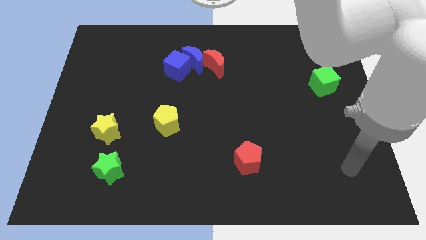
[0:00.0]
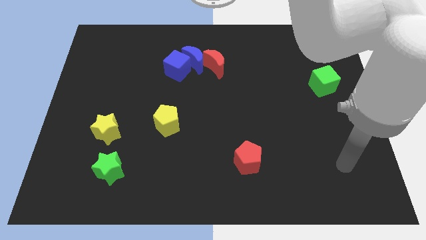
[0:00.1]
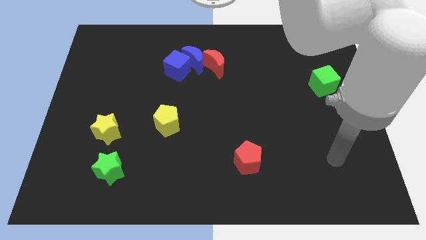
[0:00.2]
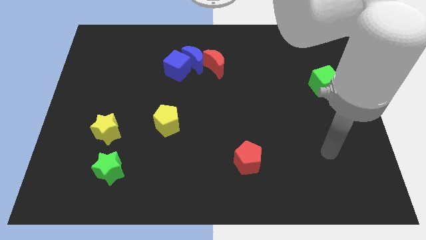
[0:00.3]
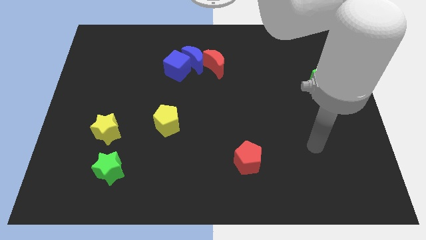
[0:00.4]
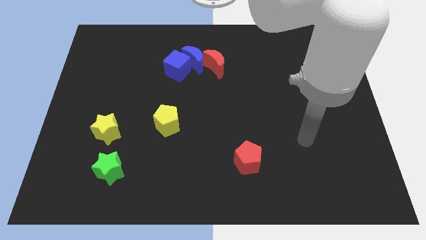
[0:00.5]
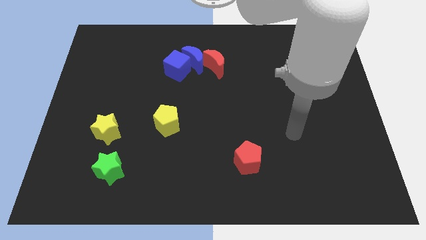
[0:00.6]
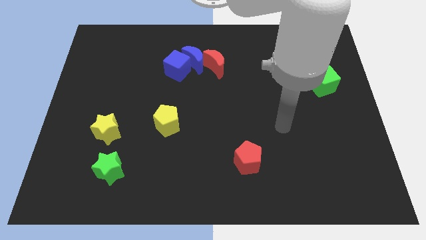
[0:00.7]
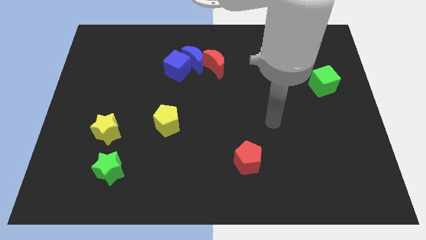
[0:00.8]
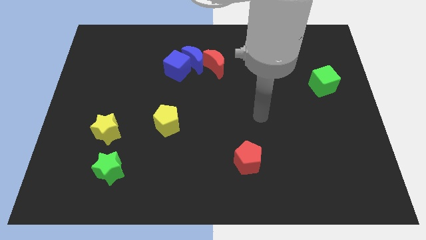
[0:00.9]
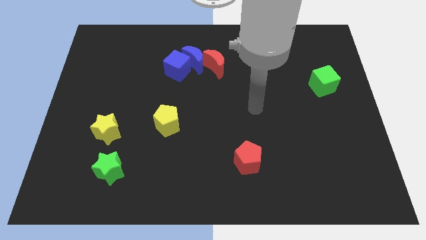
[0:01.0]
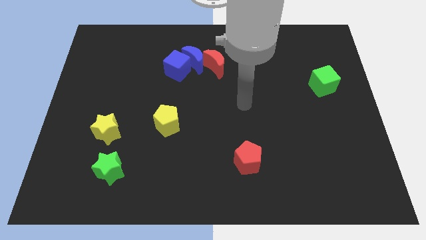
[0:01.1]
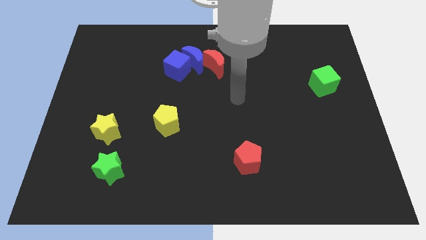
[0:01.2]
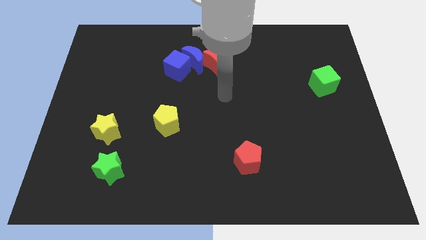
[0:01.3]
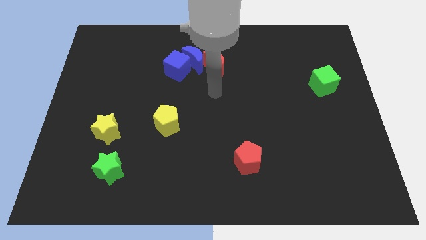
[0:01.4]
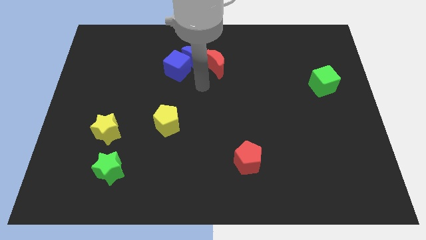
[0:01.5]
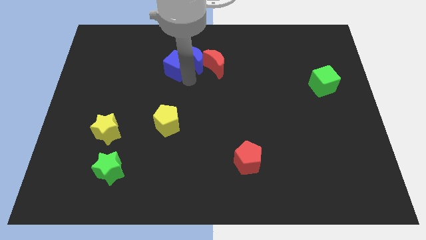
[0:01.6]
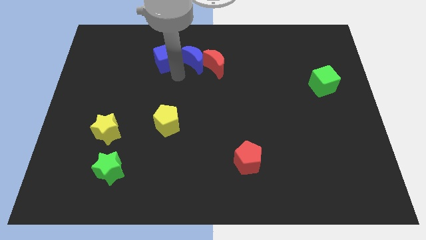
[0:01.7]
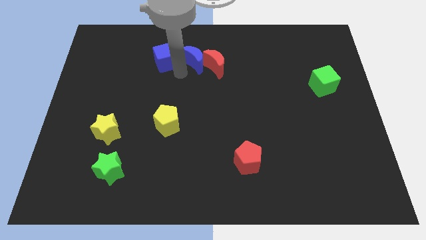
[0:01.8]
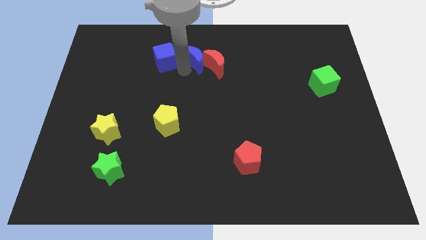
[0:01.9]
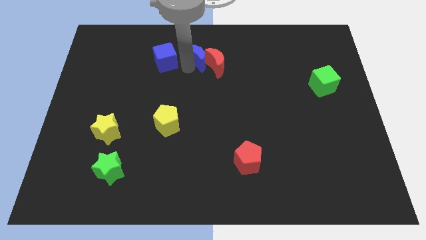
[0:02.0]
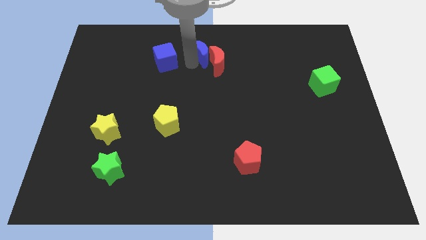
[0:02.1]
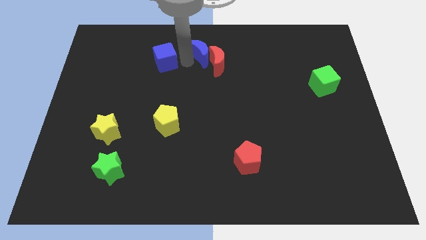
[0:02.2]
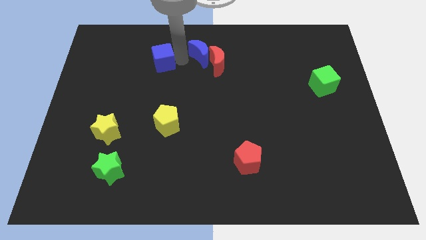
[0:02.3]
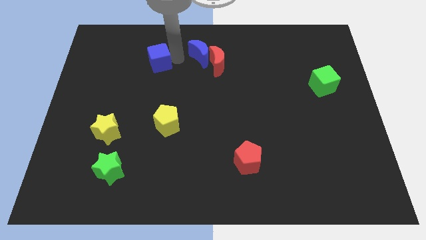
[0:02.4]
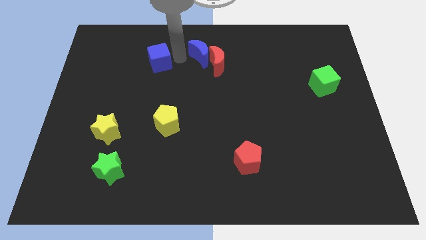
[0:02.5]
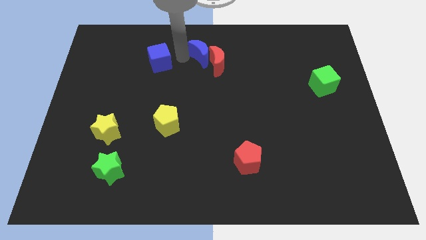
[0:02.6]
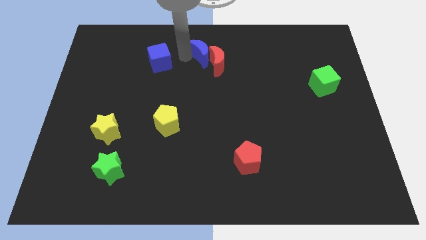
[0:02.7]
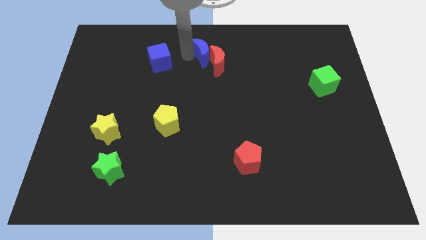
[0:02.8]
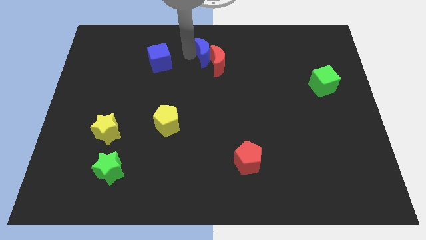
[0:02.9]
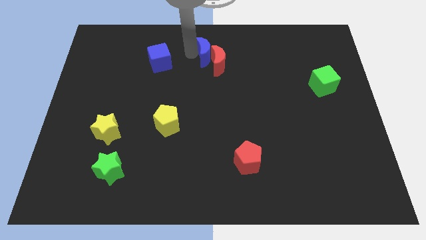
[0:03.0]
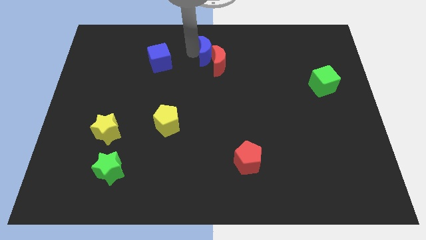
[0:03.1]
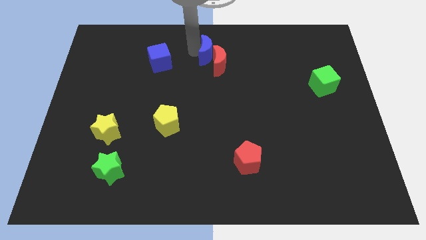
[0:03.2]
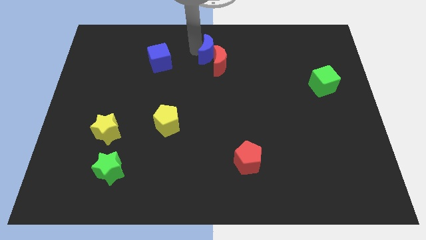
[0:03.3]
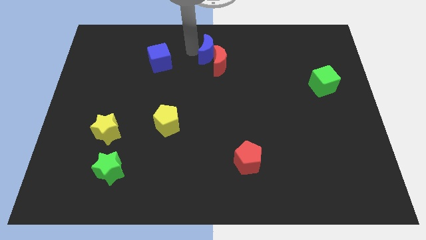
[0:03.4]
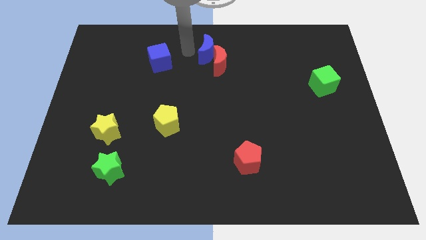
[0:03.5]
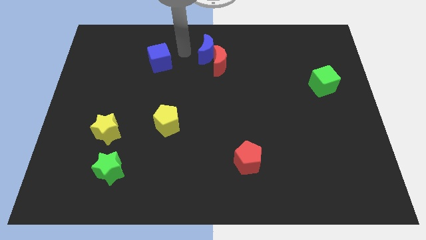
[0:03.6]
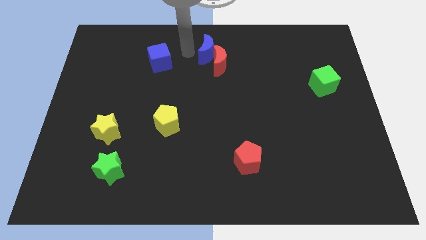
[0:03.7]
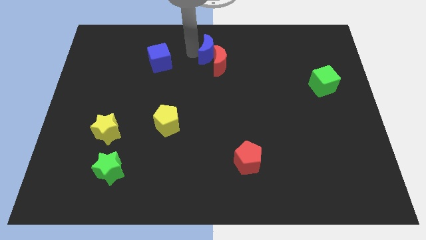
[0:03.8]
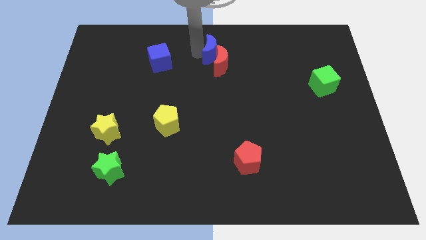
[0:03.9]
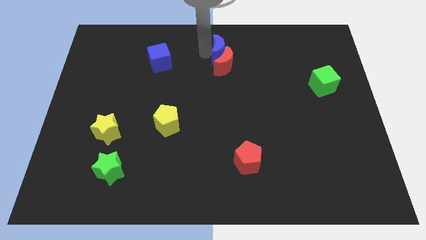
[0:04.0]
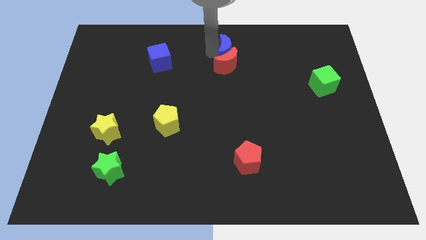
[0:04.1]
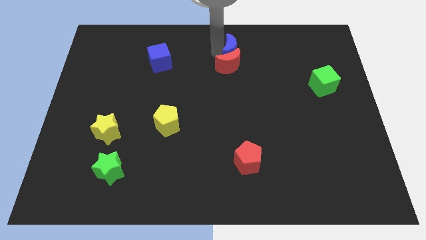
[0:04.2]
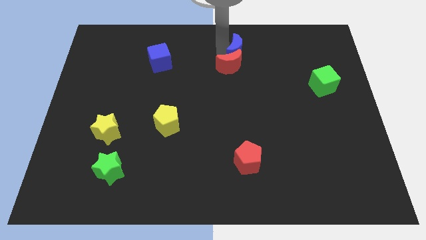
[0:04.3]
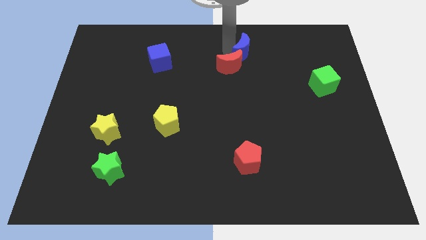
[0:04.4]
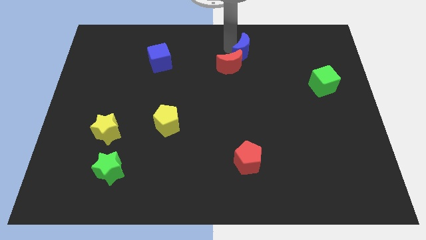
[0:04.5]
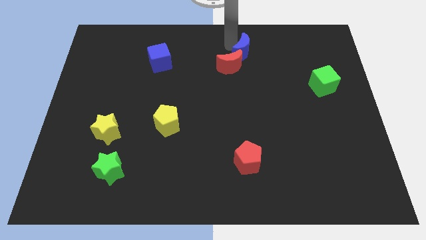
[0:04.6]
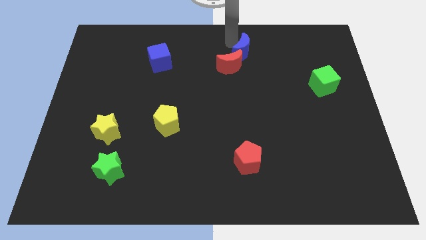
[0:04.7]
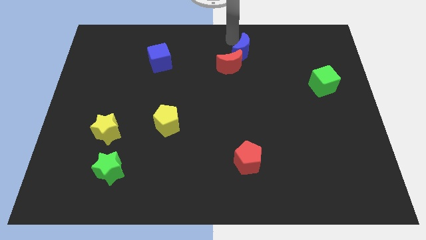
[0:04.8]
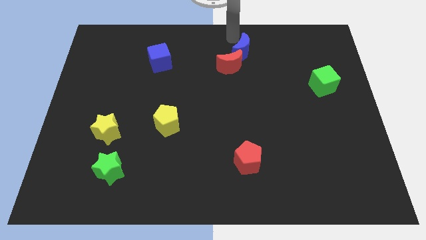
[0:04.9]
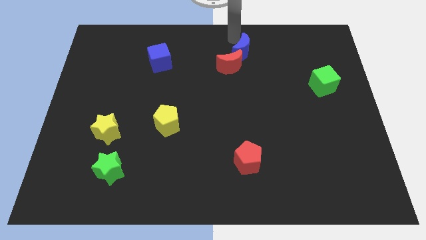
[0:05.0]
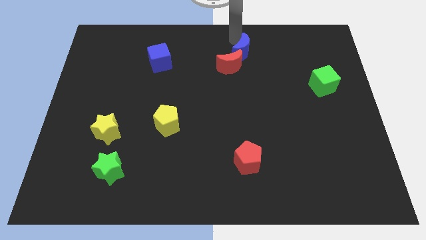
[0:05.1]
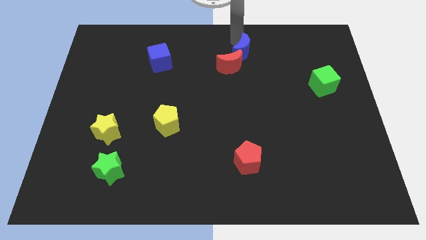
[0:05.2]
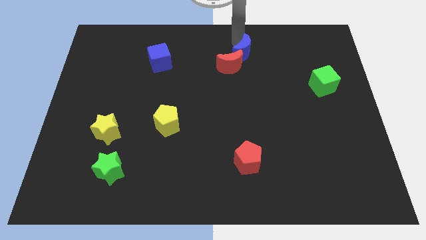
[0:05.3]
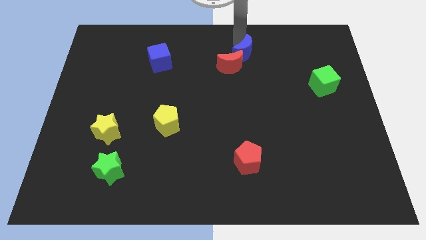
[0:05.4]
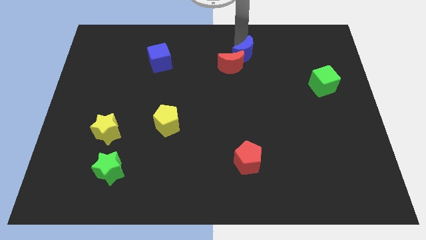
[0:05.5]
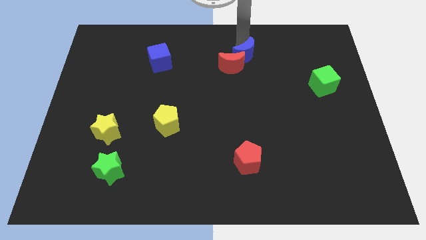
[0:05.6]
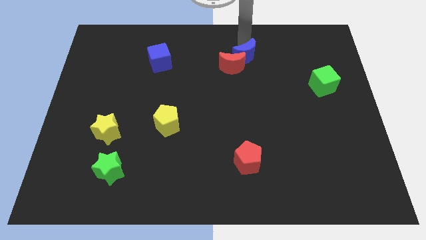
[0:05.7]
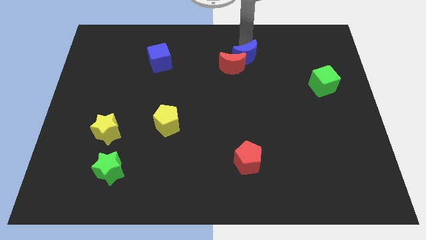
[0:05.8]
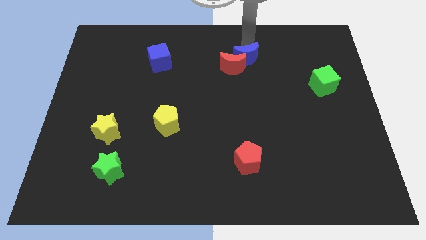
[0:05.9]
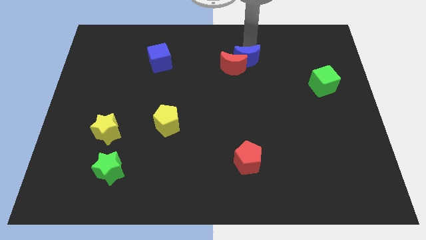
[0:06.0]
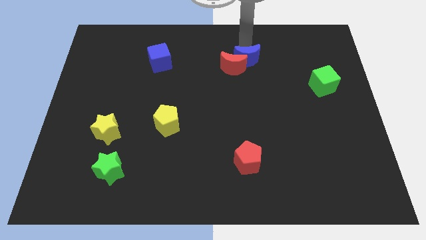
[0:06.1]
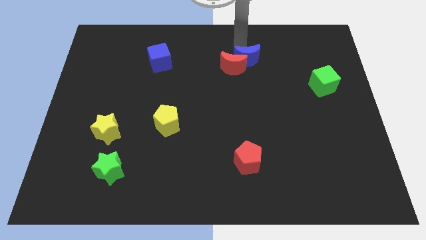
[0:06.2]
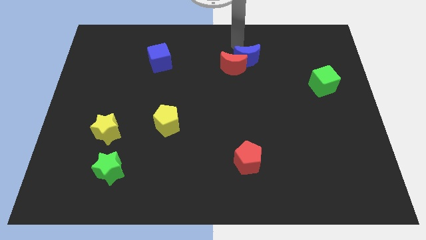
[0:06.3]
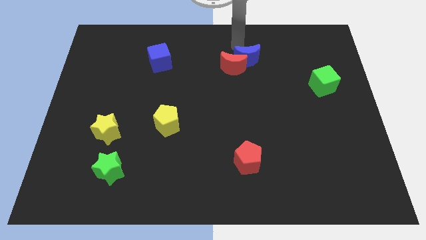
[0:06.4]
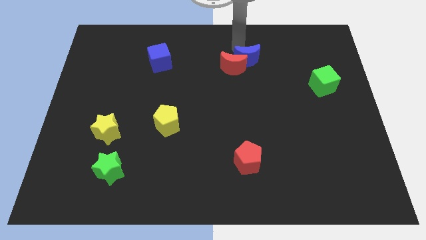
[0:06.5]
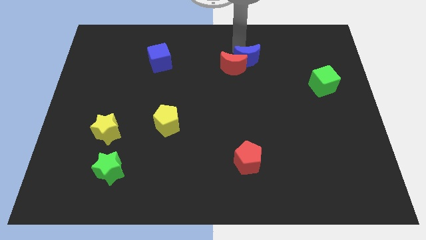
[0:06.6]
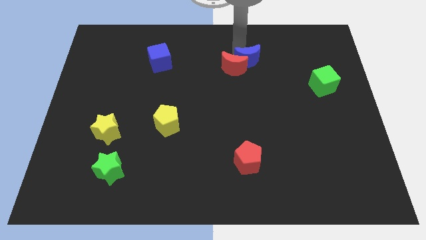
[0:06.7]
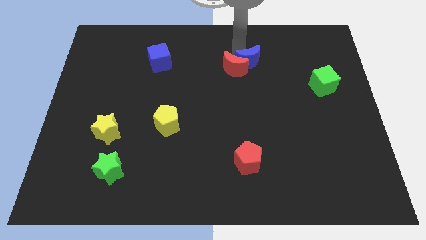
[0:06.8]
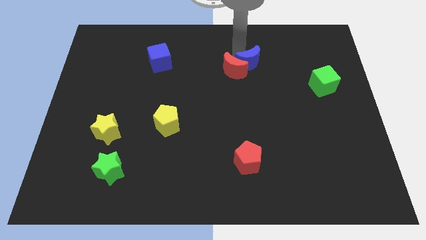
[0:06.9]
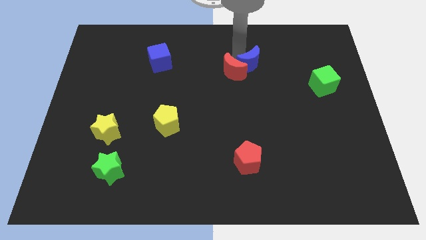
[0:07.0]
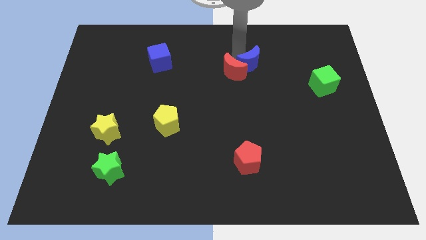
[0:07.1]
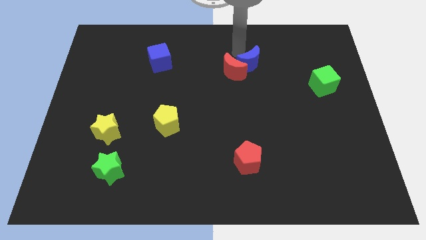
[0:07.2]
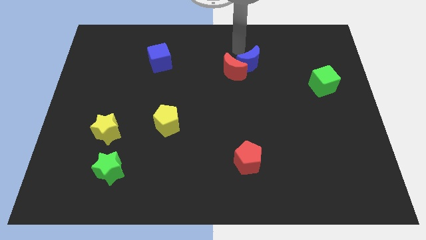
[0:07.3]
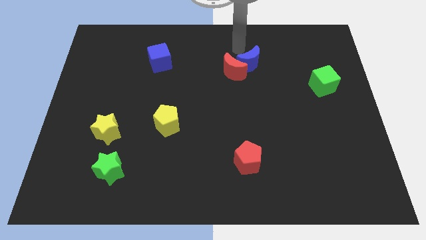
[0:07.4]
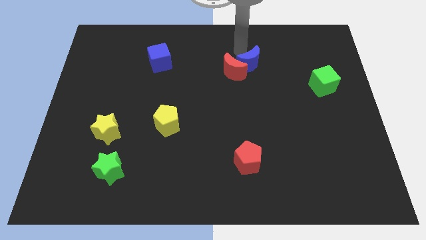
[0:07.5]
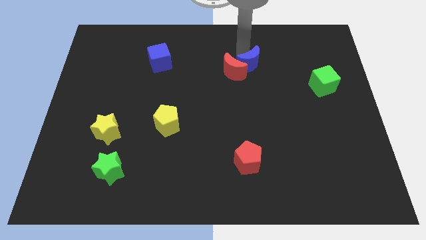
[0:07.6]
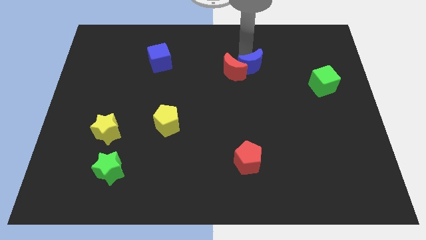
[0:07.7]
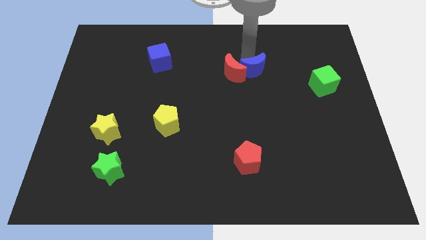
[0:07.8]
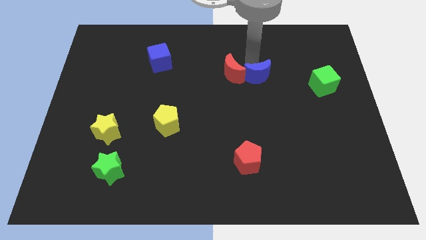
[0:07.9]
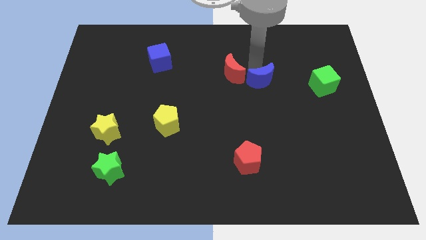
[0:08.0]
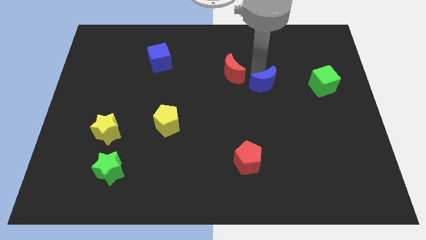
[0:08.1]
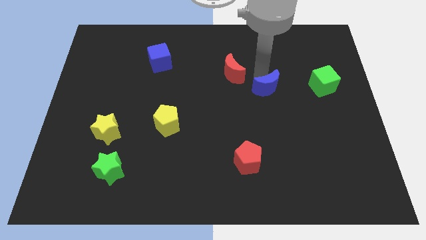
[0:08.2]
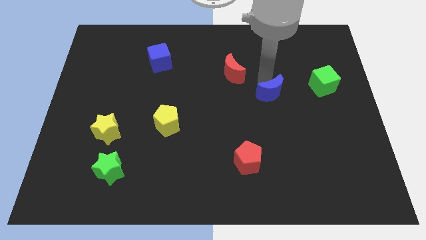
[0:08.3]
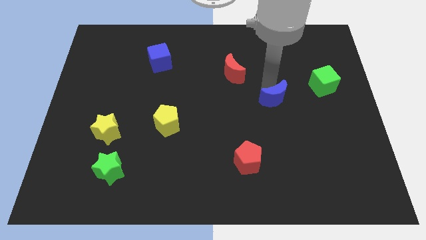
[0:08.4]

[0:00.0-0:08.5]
move the blue moon down and right diagonally
